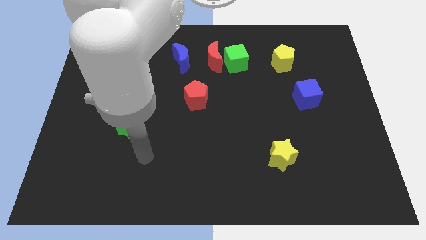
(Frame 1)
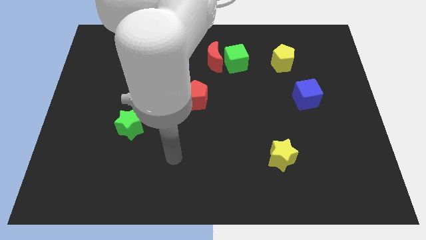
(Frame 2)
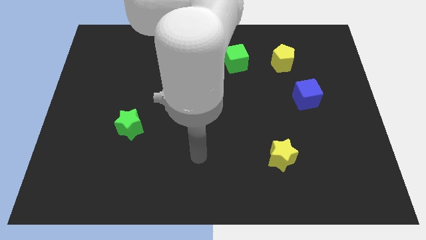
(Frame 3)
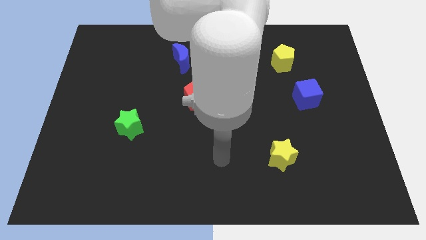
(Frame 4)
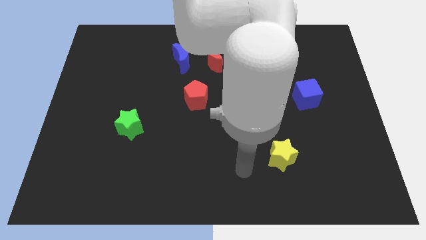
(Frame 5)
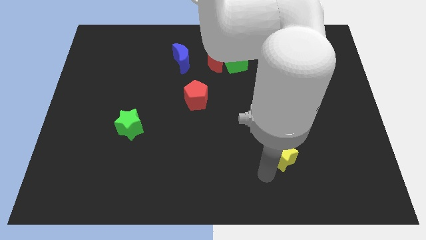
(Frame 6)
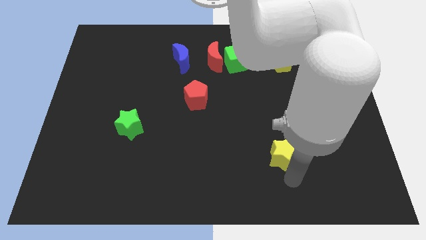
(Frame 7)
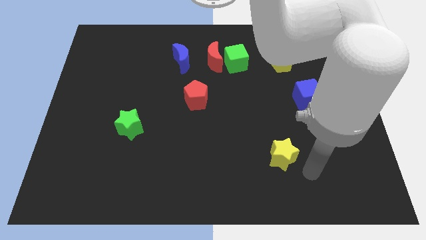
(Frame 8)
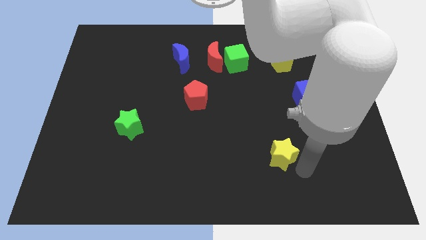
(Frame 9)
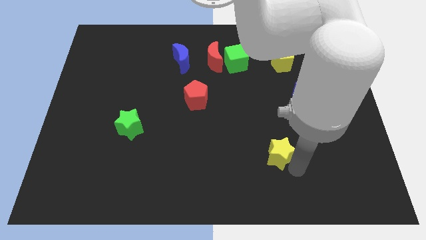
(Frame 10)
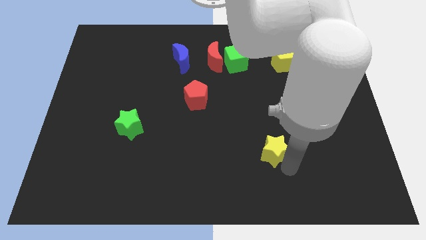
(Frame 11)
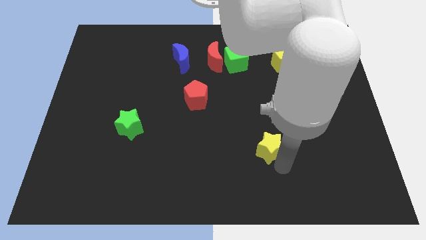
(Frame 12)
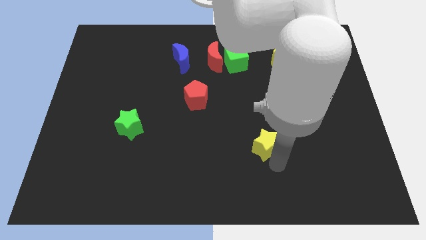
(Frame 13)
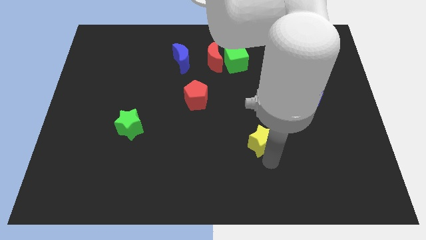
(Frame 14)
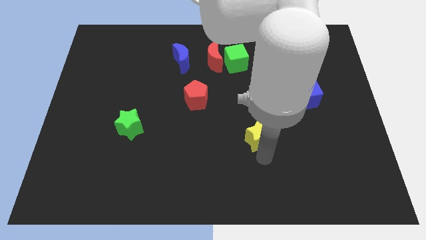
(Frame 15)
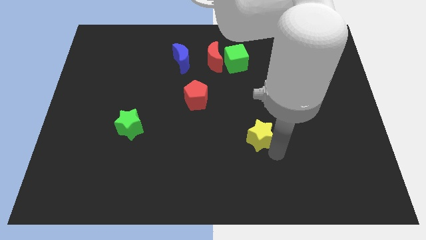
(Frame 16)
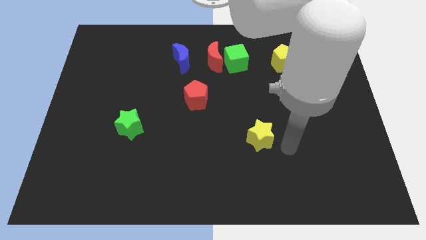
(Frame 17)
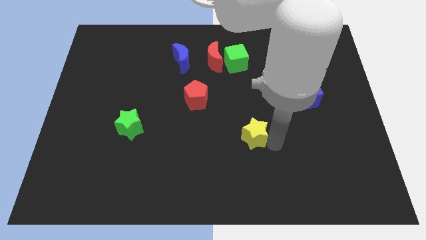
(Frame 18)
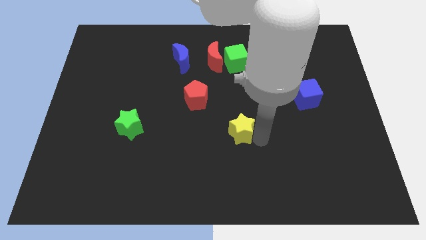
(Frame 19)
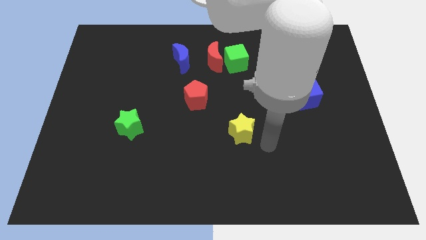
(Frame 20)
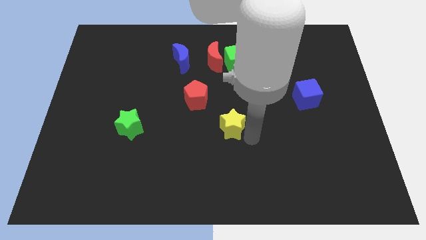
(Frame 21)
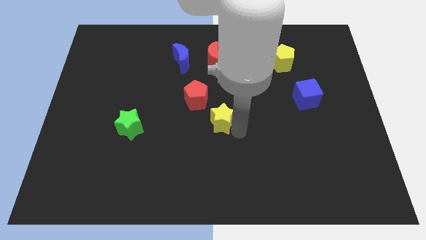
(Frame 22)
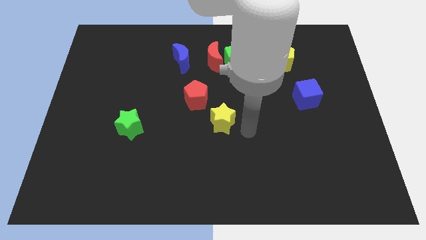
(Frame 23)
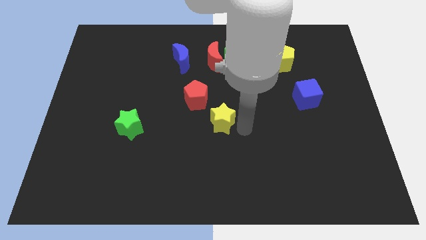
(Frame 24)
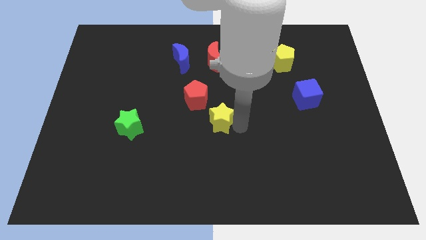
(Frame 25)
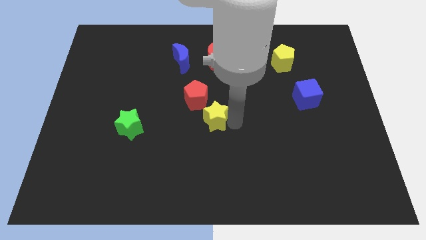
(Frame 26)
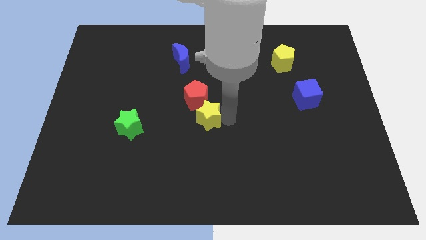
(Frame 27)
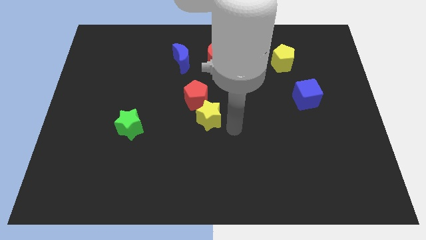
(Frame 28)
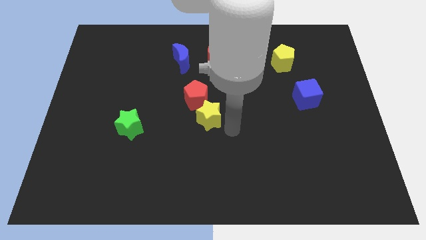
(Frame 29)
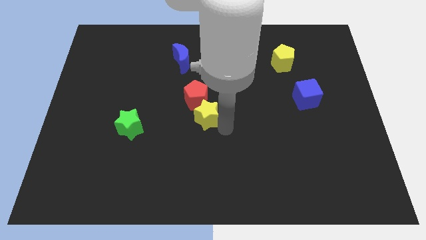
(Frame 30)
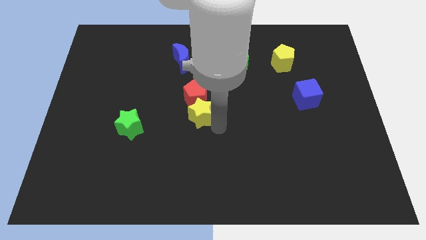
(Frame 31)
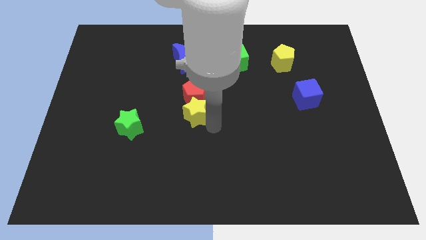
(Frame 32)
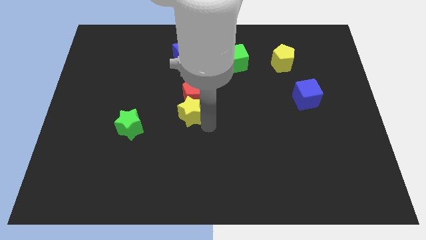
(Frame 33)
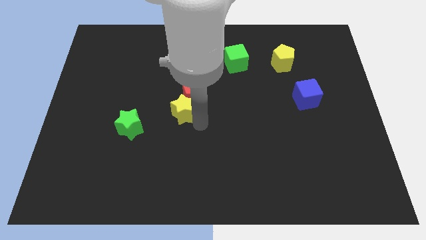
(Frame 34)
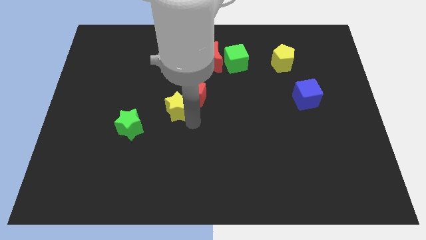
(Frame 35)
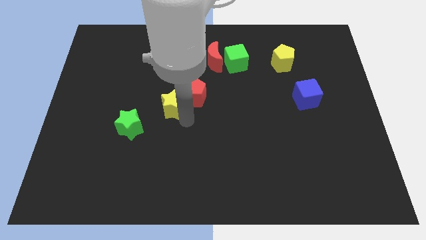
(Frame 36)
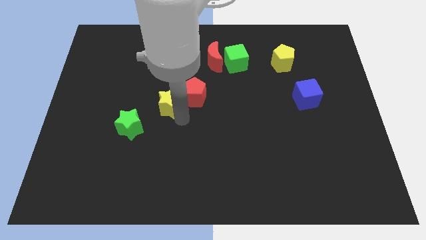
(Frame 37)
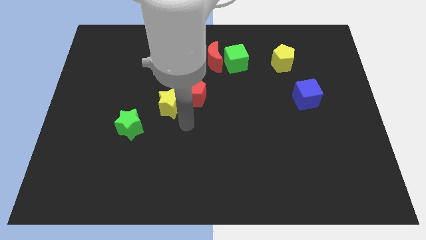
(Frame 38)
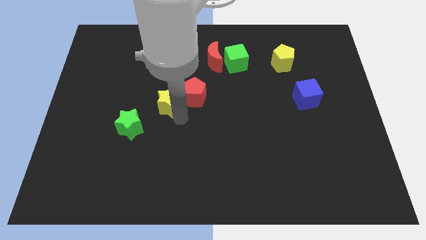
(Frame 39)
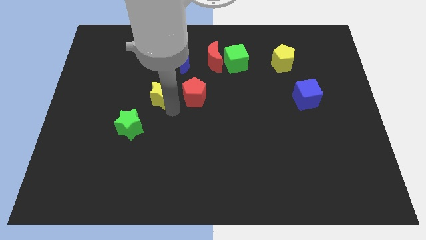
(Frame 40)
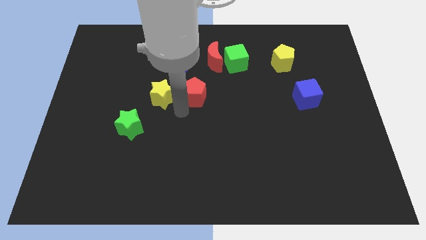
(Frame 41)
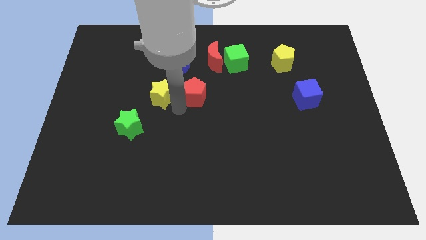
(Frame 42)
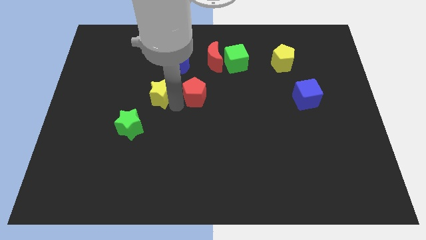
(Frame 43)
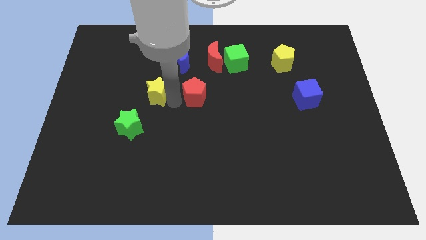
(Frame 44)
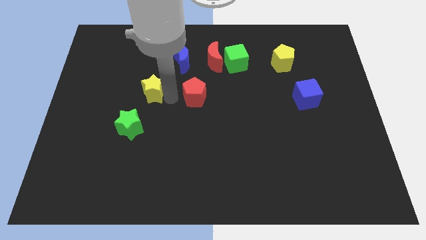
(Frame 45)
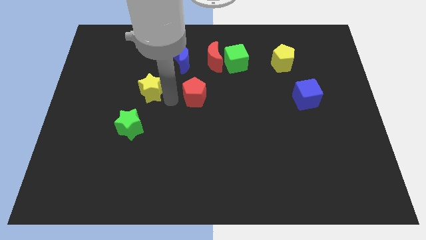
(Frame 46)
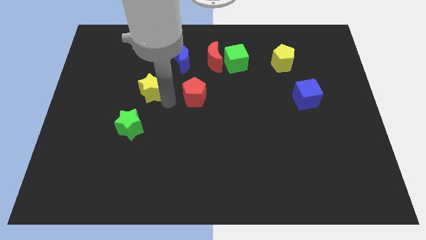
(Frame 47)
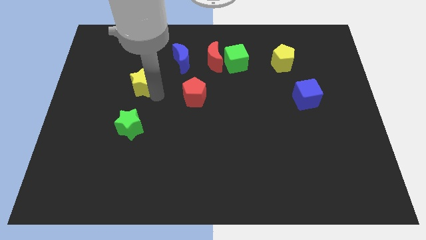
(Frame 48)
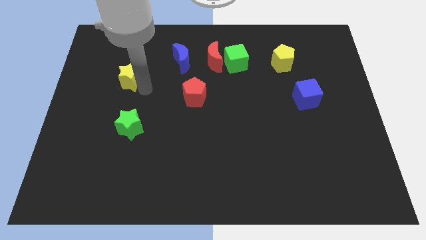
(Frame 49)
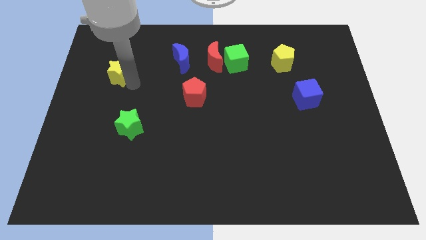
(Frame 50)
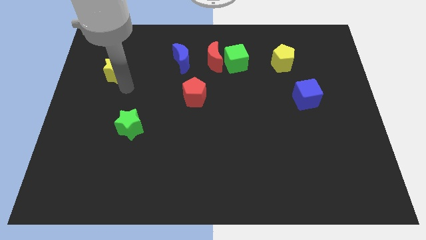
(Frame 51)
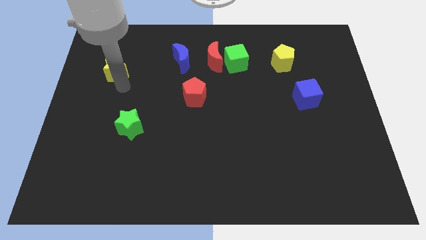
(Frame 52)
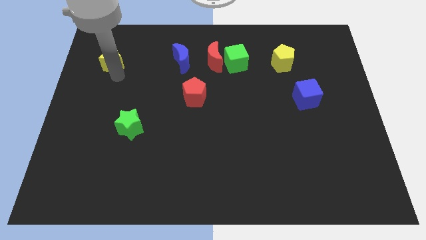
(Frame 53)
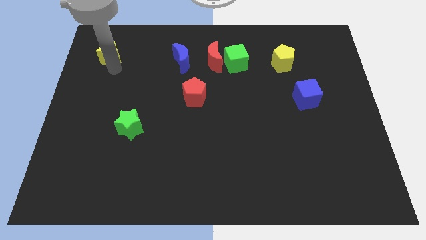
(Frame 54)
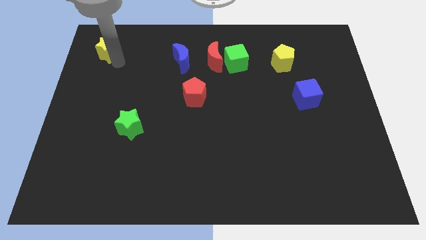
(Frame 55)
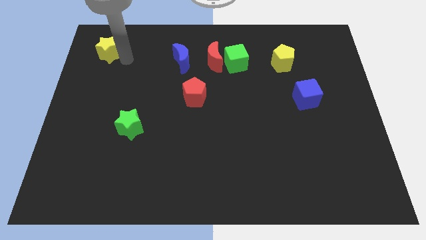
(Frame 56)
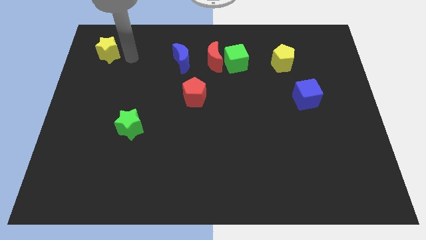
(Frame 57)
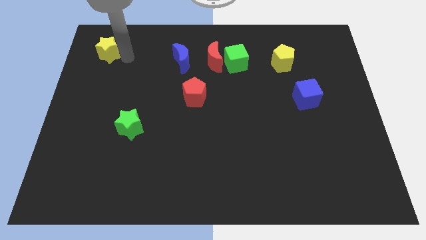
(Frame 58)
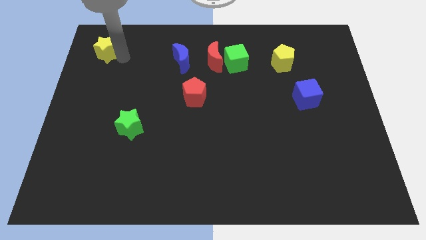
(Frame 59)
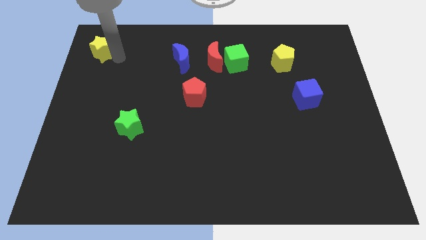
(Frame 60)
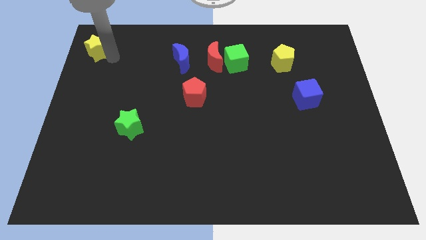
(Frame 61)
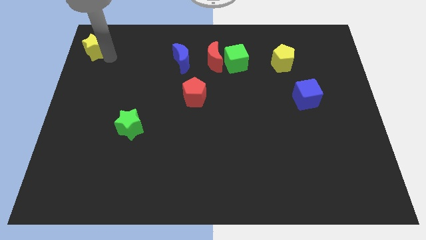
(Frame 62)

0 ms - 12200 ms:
move the yellow star to the upper left corner
